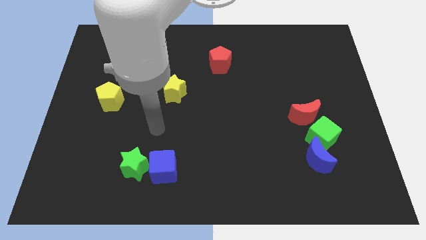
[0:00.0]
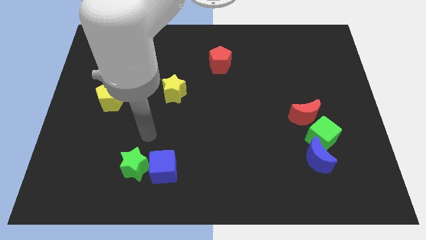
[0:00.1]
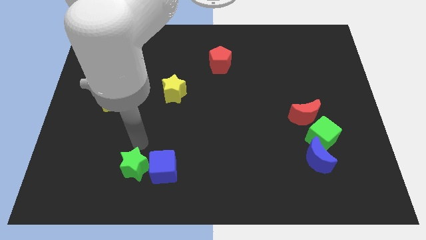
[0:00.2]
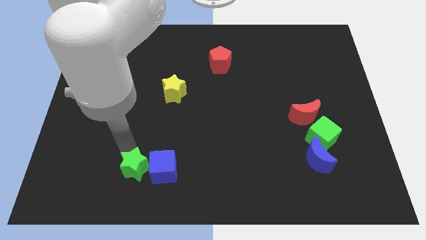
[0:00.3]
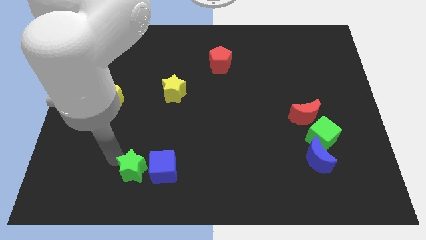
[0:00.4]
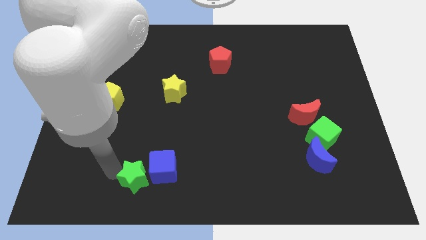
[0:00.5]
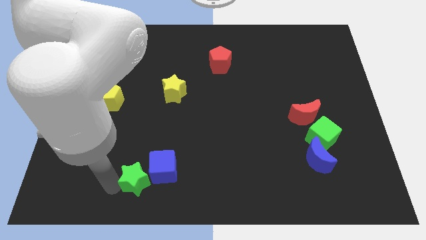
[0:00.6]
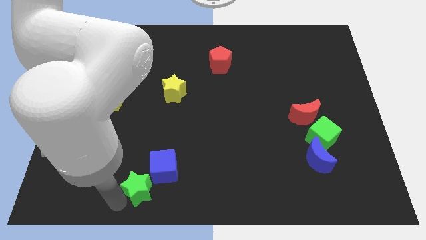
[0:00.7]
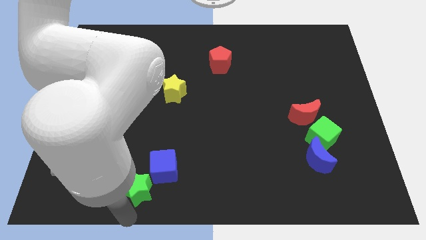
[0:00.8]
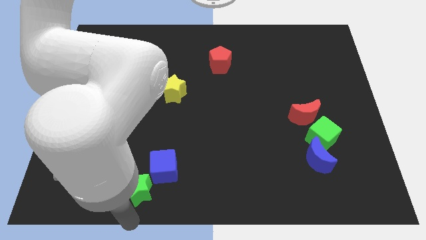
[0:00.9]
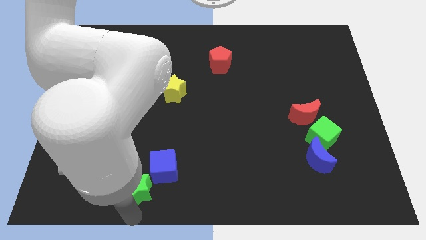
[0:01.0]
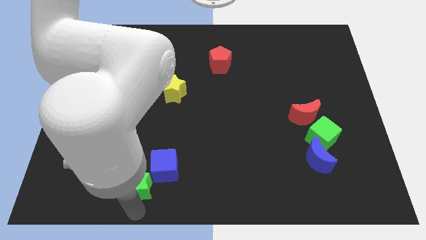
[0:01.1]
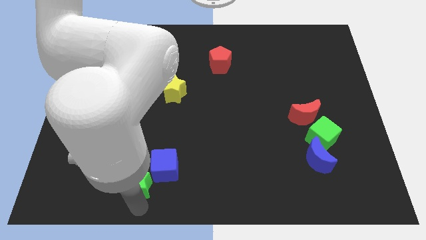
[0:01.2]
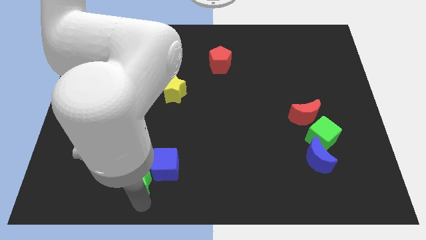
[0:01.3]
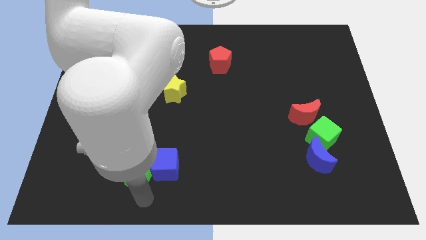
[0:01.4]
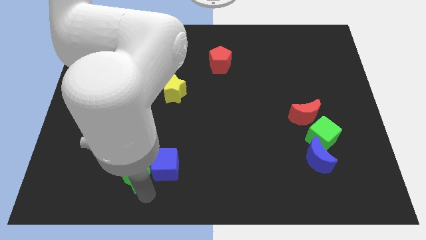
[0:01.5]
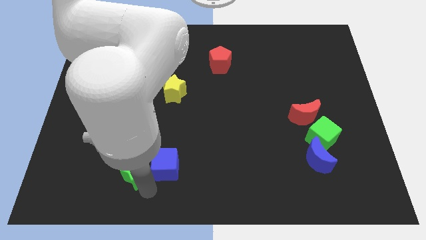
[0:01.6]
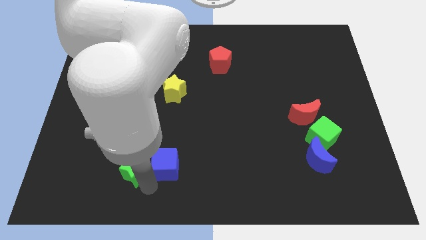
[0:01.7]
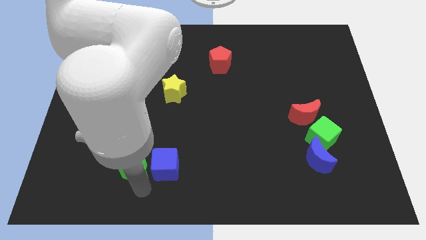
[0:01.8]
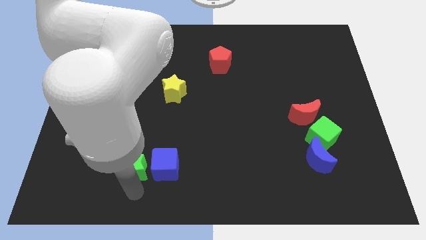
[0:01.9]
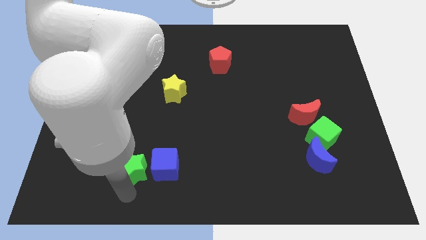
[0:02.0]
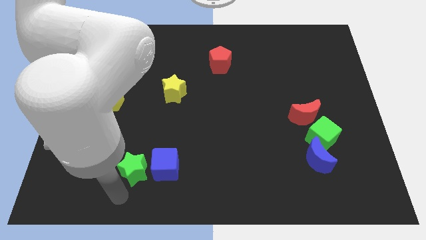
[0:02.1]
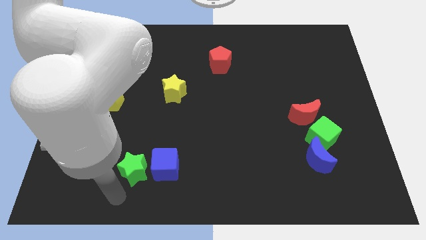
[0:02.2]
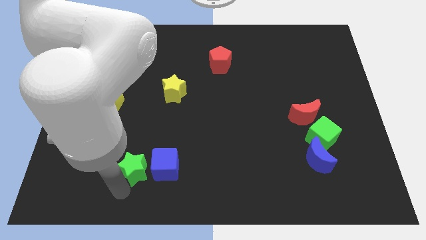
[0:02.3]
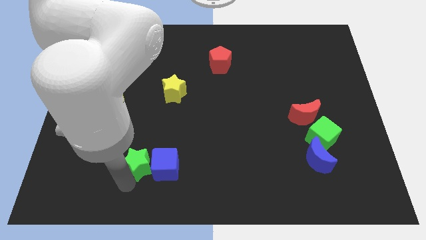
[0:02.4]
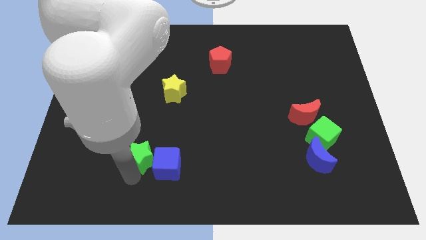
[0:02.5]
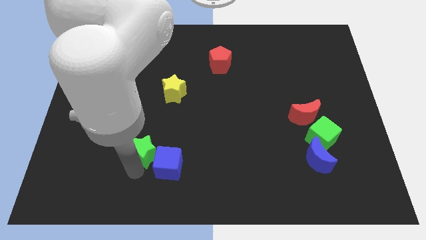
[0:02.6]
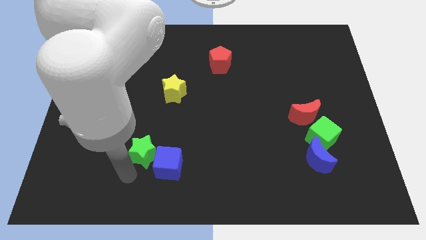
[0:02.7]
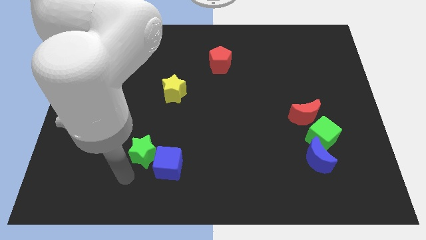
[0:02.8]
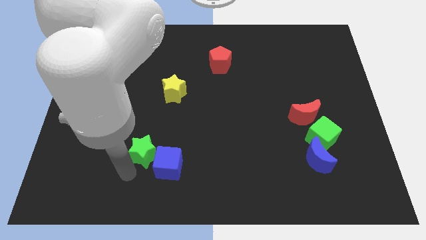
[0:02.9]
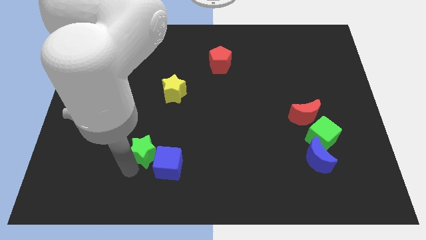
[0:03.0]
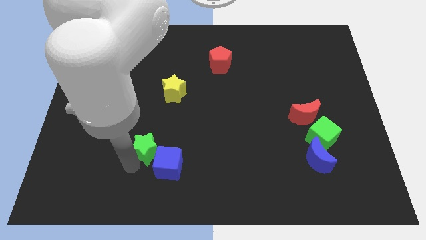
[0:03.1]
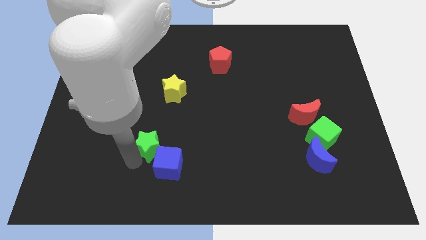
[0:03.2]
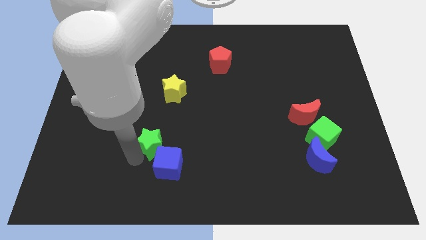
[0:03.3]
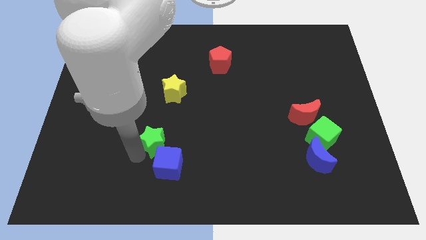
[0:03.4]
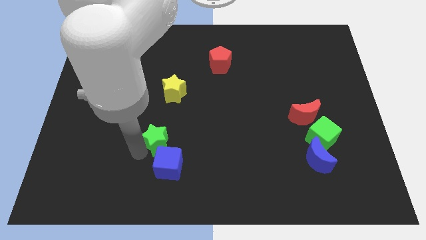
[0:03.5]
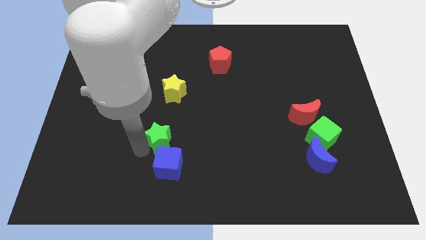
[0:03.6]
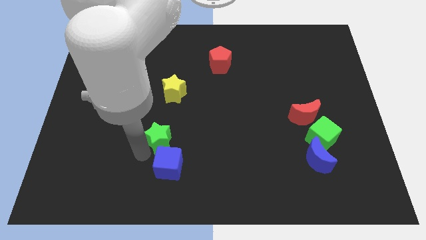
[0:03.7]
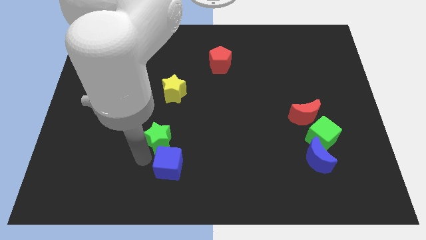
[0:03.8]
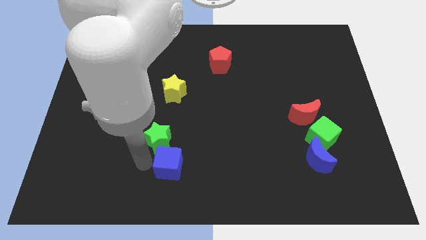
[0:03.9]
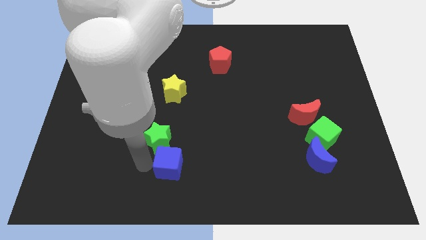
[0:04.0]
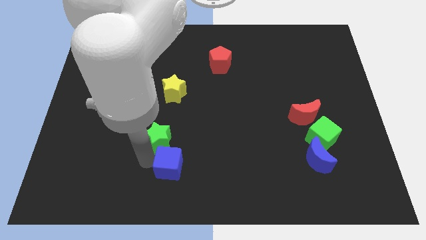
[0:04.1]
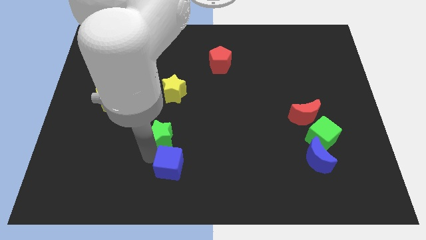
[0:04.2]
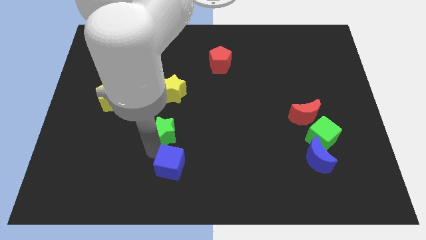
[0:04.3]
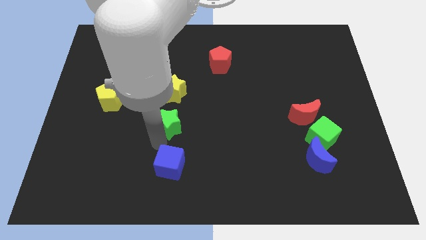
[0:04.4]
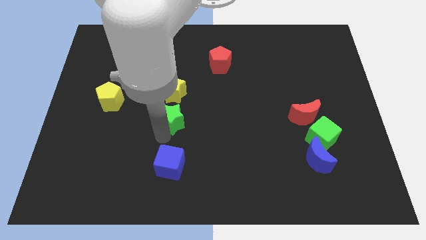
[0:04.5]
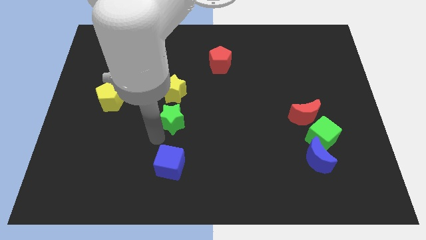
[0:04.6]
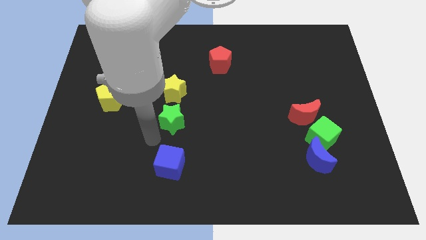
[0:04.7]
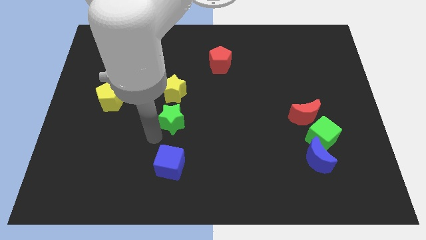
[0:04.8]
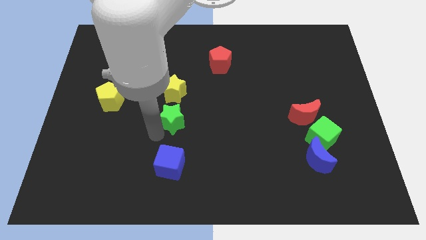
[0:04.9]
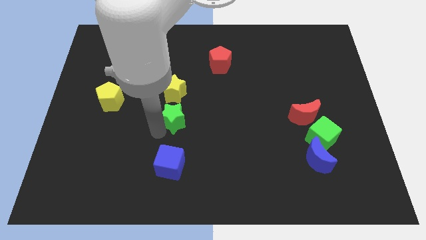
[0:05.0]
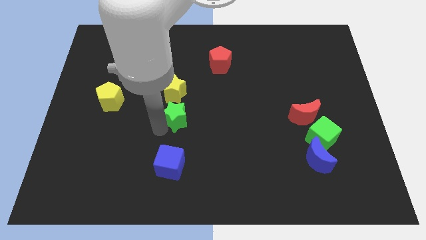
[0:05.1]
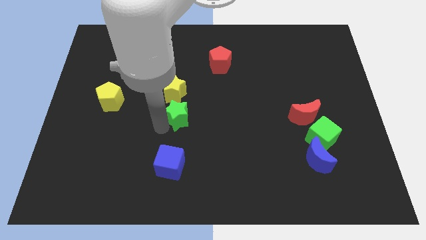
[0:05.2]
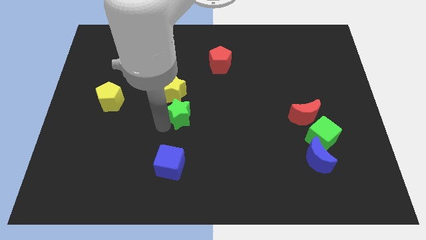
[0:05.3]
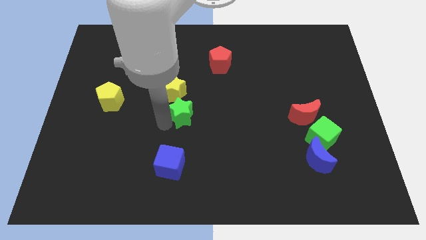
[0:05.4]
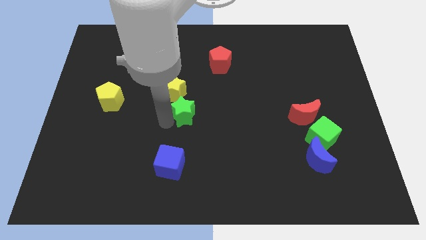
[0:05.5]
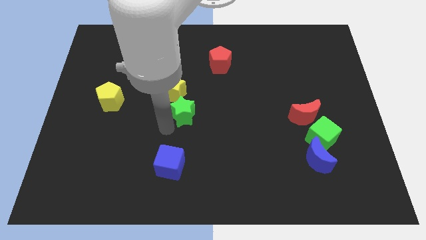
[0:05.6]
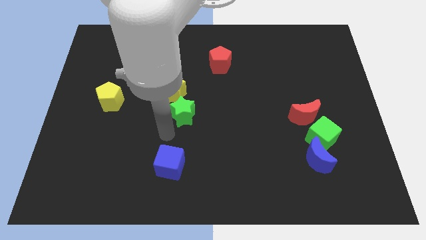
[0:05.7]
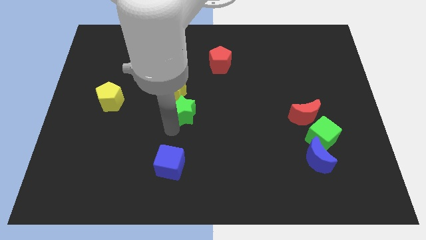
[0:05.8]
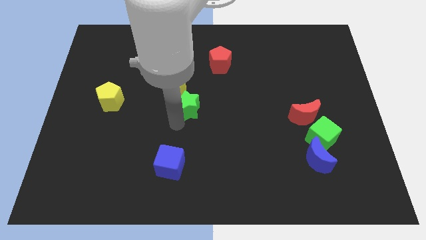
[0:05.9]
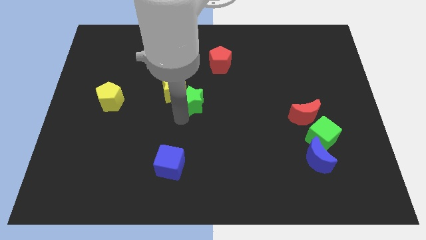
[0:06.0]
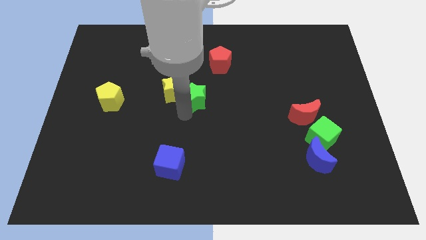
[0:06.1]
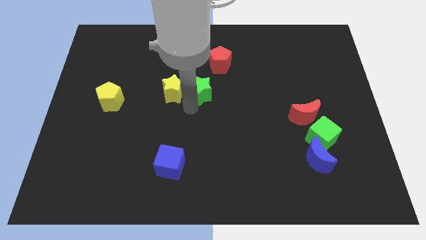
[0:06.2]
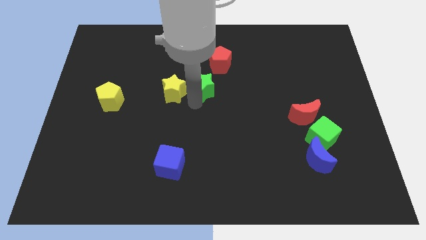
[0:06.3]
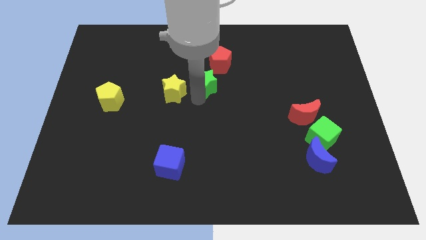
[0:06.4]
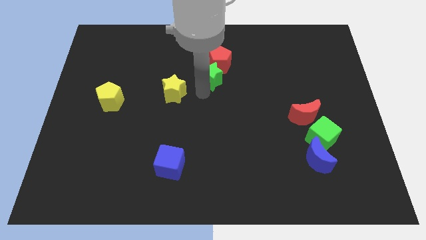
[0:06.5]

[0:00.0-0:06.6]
push the green star next to the red pentagon

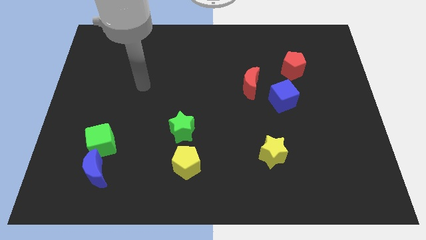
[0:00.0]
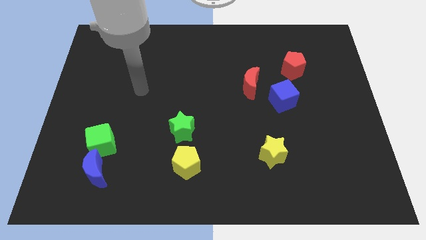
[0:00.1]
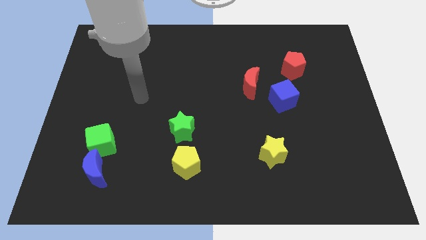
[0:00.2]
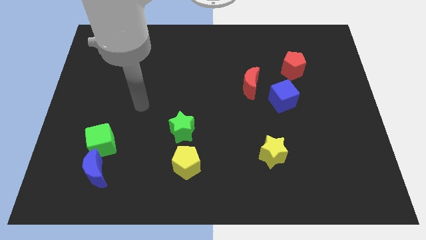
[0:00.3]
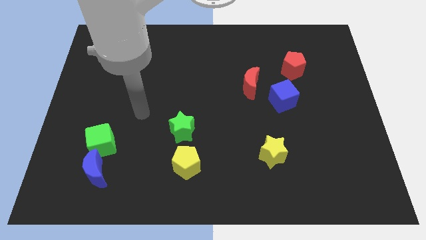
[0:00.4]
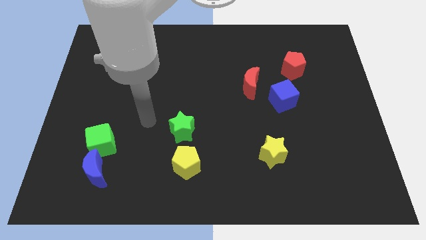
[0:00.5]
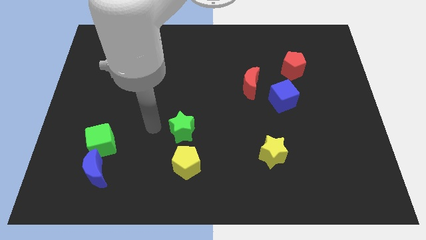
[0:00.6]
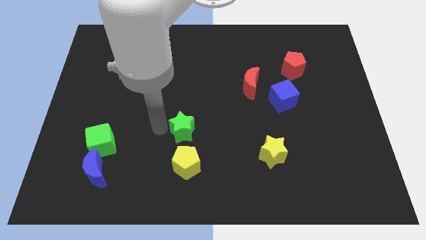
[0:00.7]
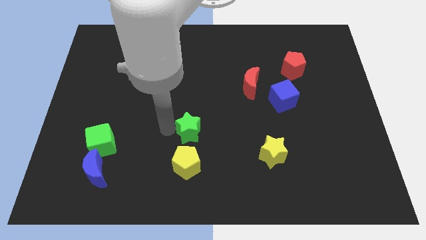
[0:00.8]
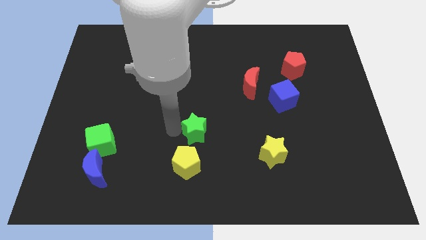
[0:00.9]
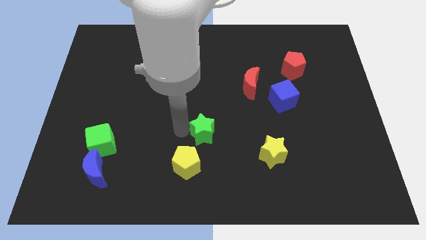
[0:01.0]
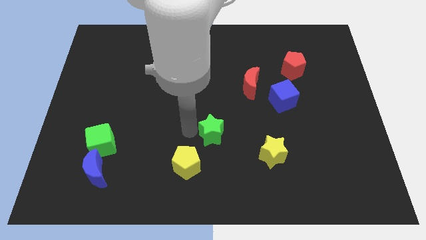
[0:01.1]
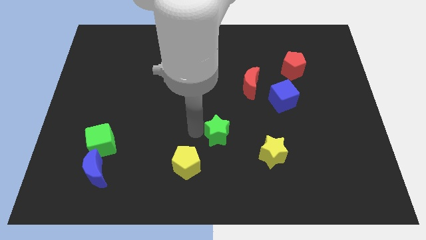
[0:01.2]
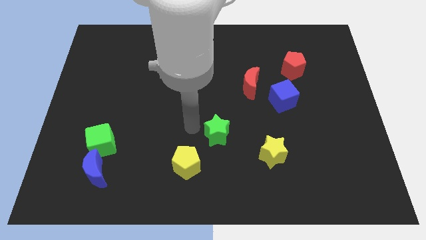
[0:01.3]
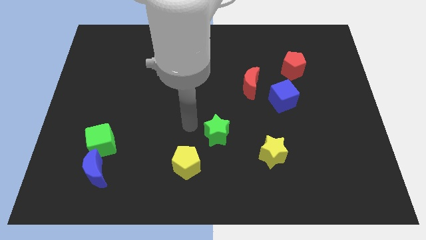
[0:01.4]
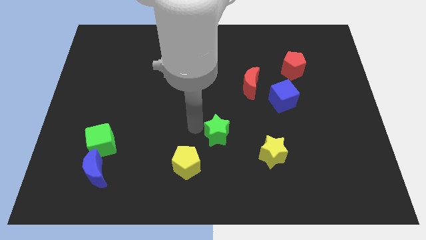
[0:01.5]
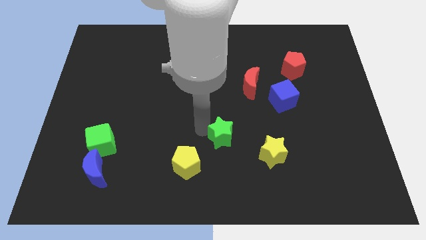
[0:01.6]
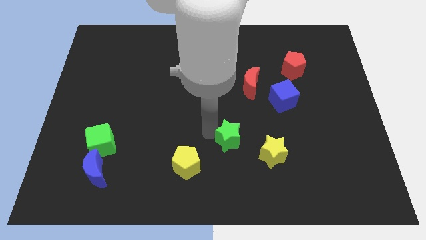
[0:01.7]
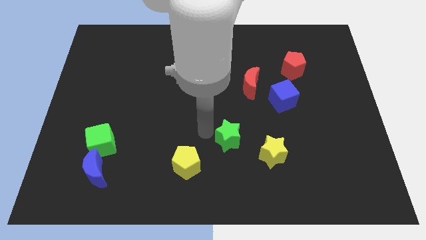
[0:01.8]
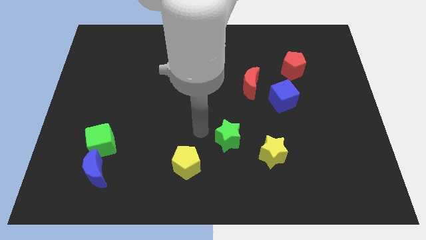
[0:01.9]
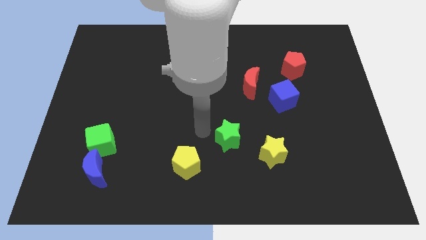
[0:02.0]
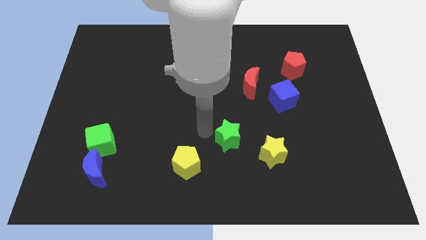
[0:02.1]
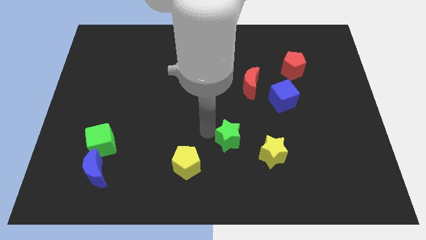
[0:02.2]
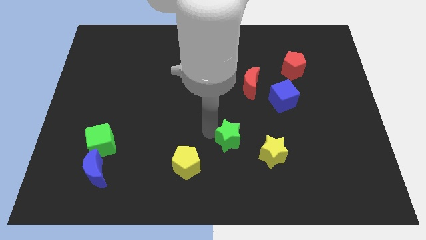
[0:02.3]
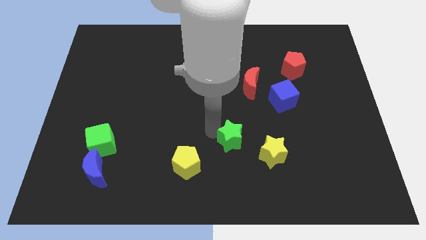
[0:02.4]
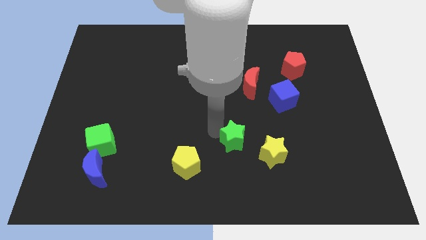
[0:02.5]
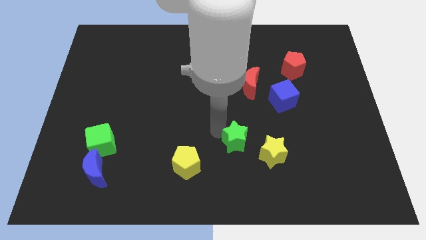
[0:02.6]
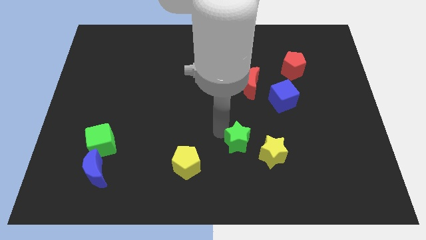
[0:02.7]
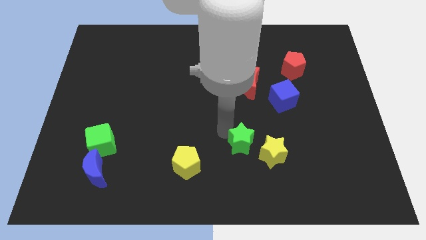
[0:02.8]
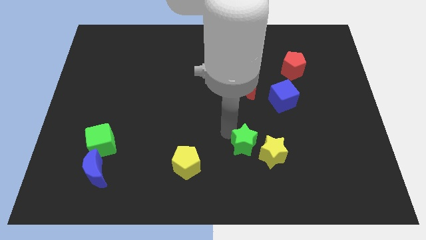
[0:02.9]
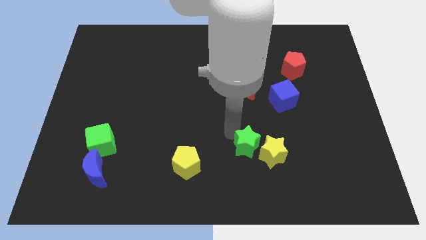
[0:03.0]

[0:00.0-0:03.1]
put the green star to the yellow star
